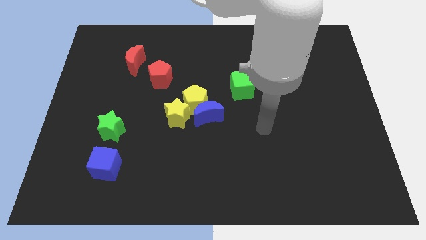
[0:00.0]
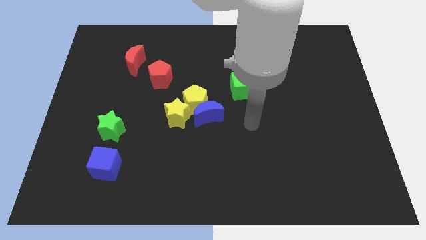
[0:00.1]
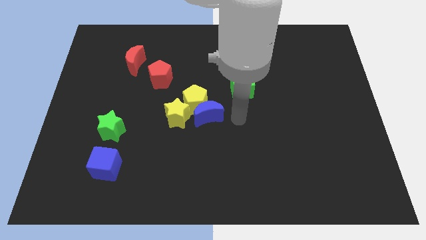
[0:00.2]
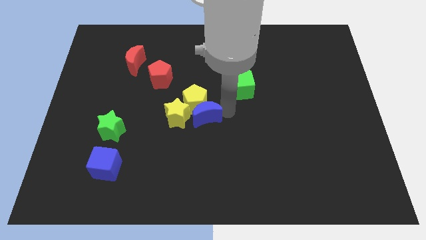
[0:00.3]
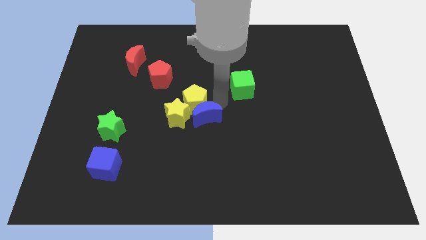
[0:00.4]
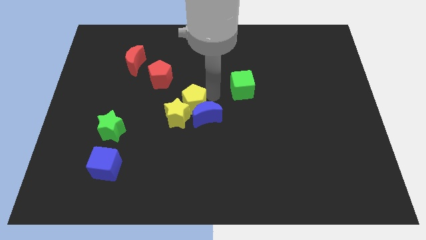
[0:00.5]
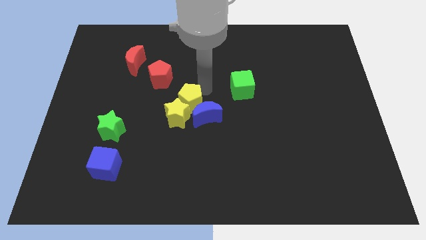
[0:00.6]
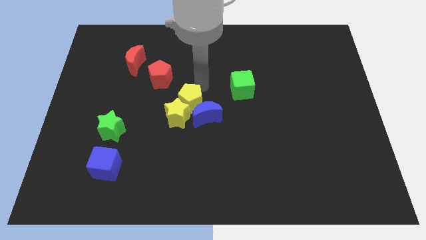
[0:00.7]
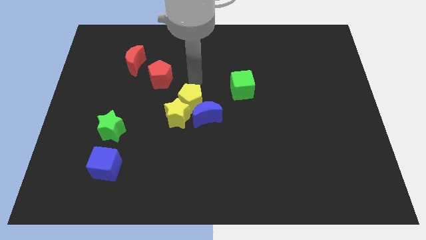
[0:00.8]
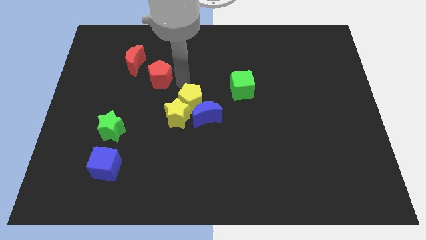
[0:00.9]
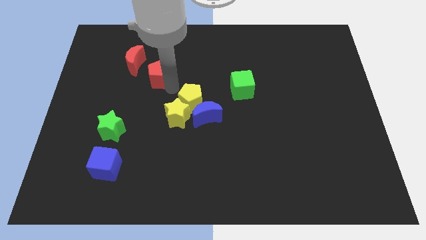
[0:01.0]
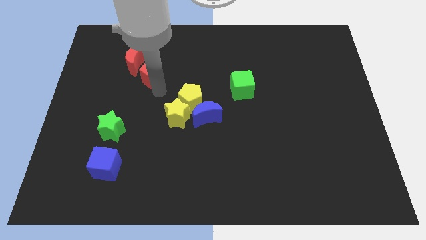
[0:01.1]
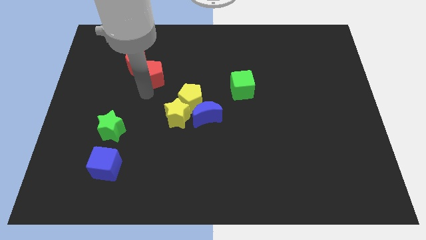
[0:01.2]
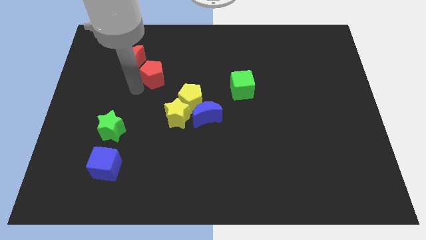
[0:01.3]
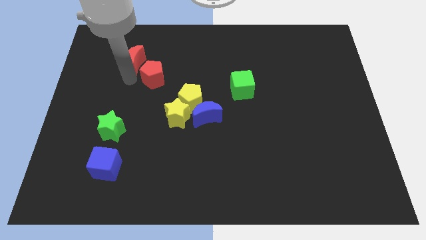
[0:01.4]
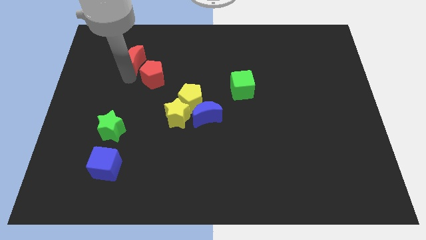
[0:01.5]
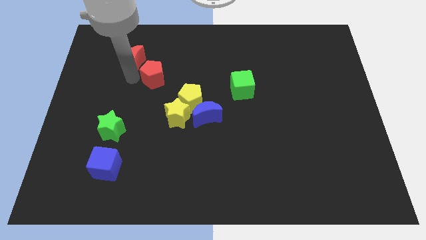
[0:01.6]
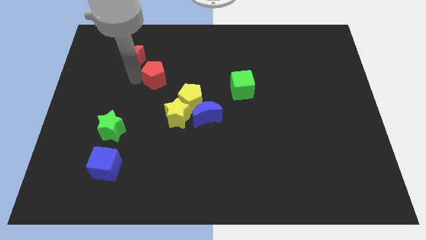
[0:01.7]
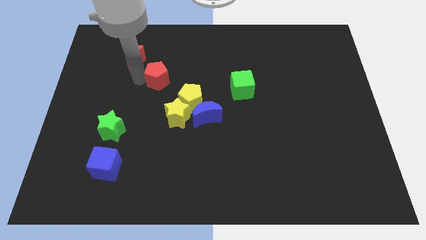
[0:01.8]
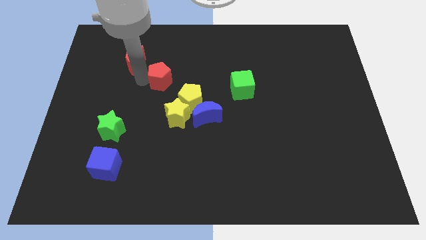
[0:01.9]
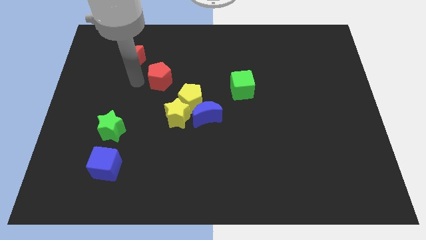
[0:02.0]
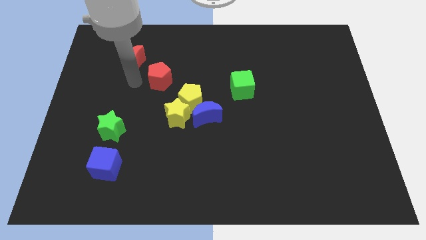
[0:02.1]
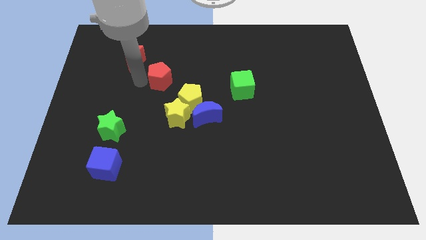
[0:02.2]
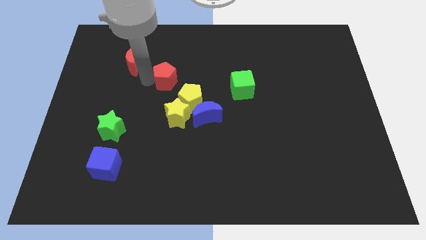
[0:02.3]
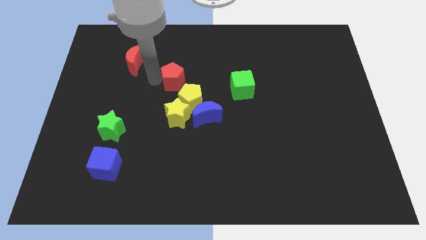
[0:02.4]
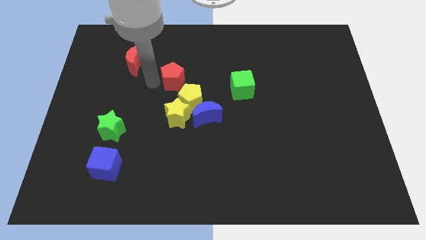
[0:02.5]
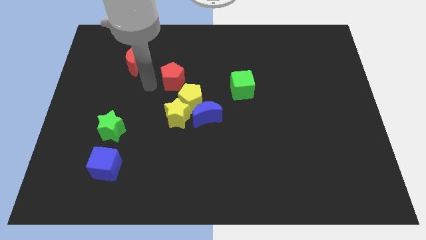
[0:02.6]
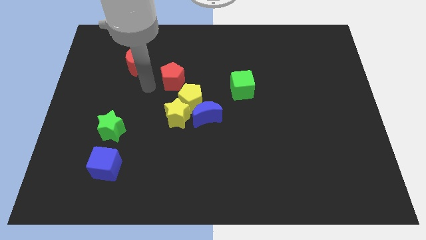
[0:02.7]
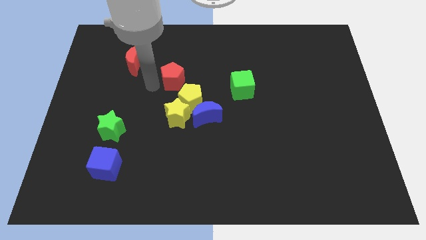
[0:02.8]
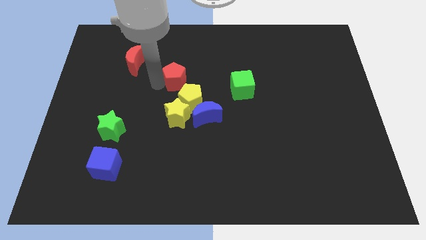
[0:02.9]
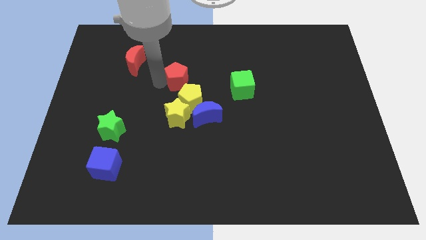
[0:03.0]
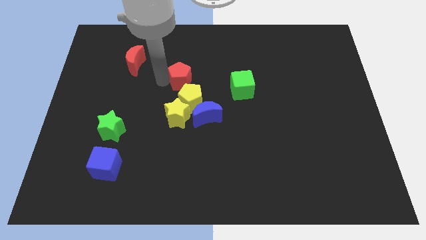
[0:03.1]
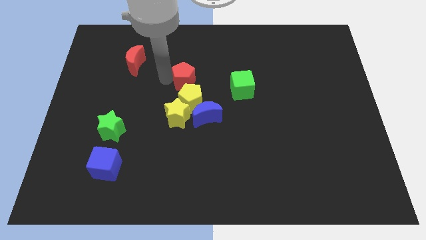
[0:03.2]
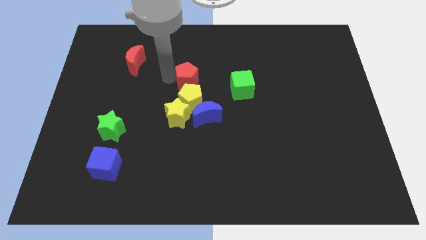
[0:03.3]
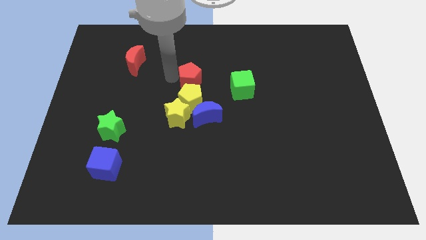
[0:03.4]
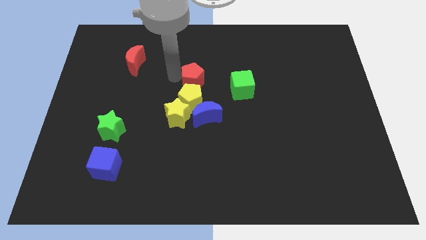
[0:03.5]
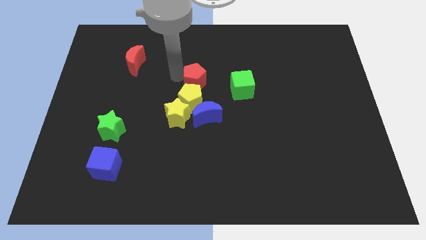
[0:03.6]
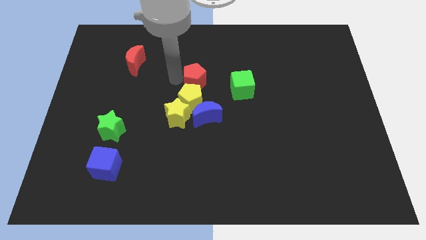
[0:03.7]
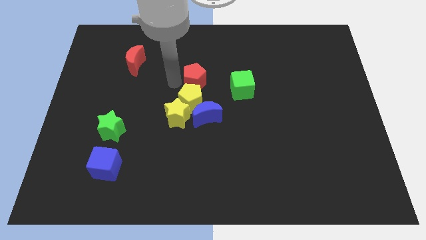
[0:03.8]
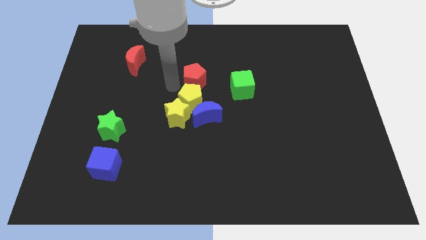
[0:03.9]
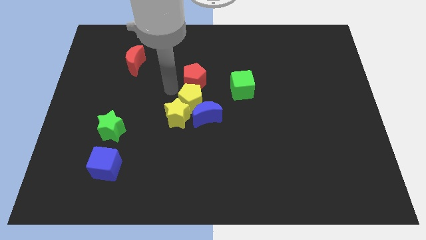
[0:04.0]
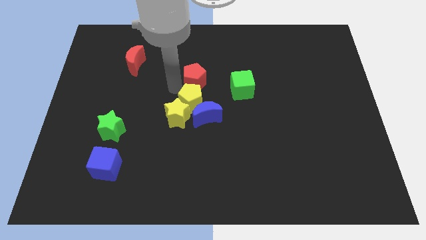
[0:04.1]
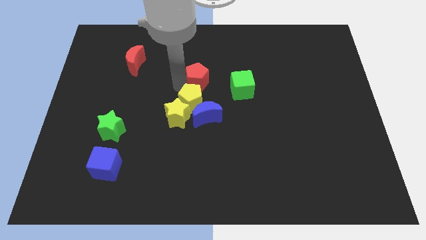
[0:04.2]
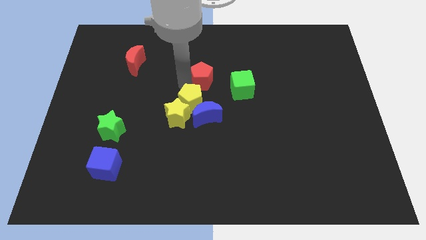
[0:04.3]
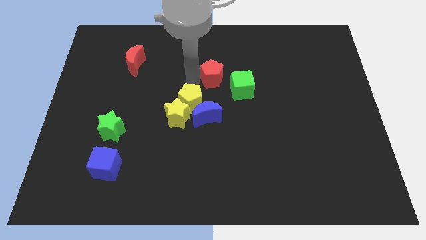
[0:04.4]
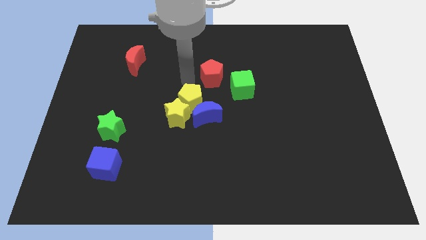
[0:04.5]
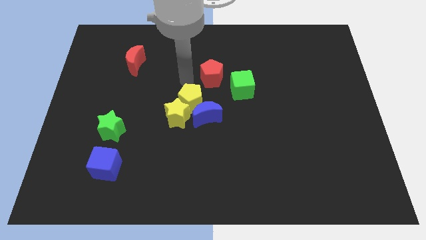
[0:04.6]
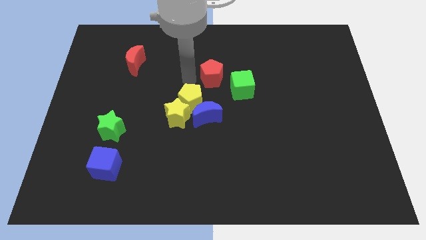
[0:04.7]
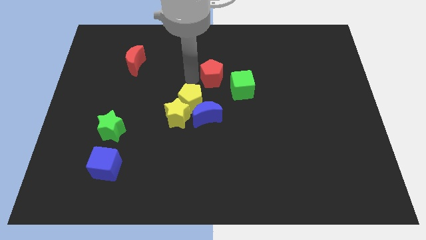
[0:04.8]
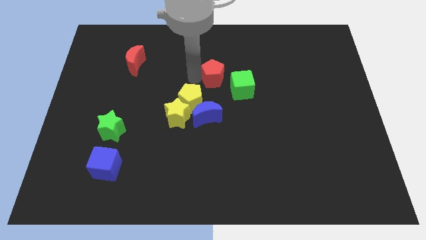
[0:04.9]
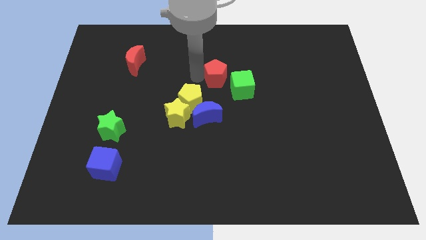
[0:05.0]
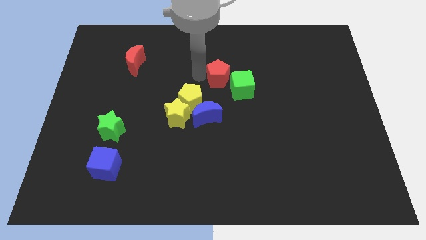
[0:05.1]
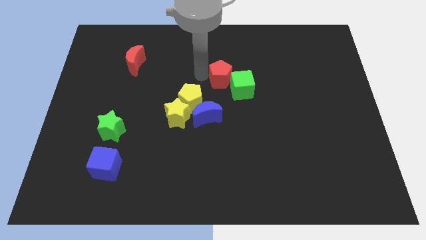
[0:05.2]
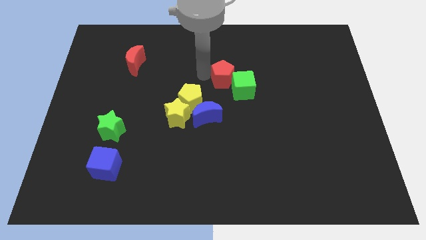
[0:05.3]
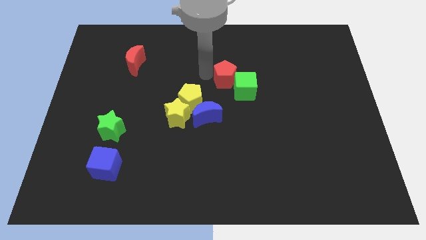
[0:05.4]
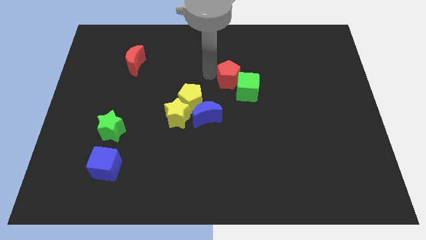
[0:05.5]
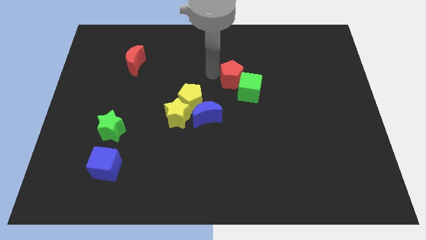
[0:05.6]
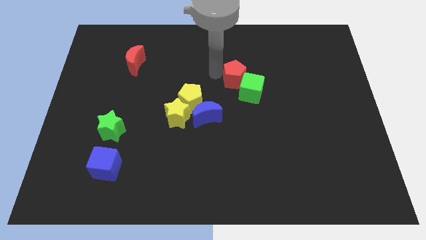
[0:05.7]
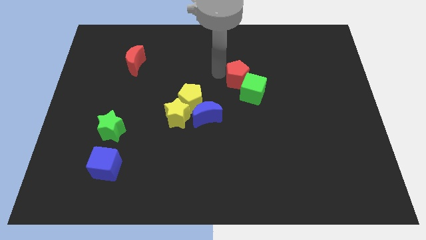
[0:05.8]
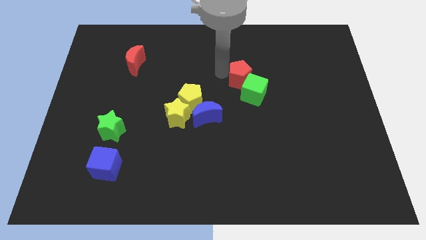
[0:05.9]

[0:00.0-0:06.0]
push the red pentagon right

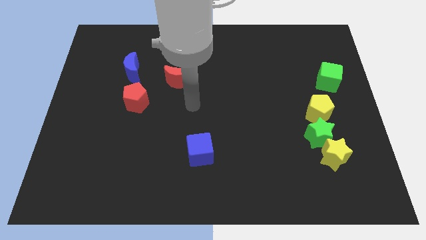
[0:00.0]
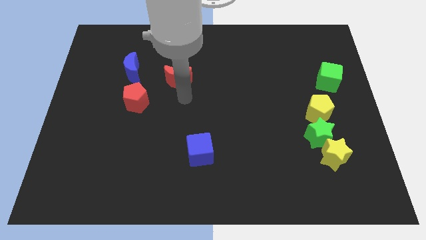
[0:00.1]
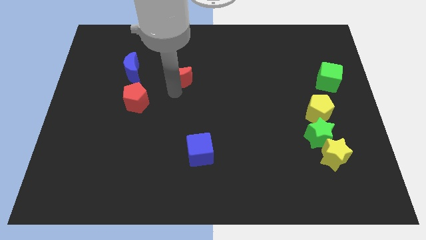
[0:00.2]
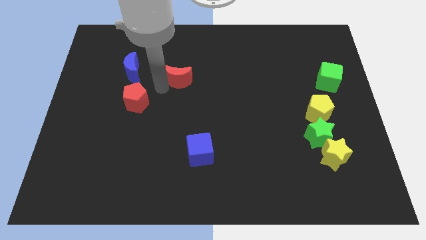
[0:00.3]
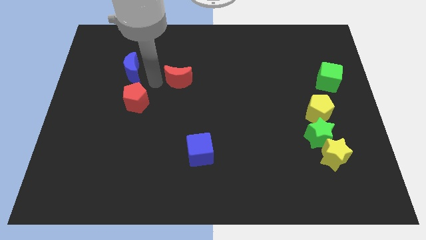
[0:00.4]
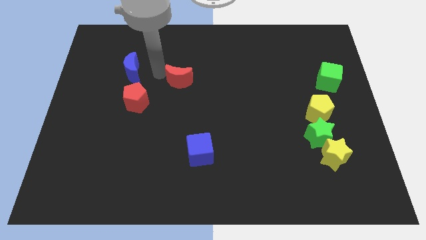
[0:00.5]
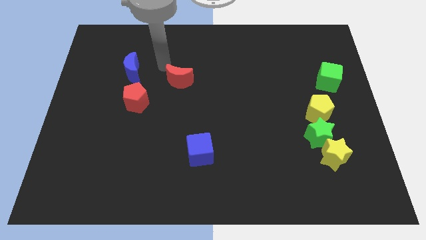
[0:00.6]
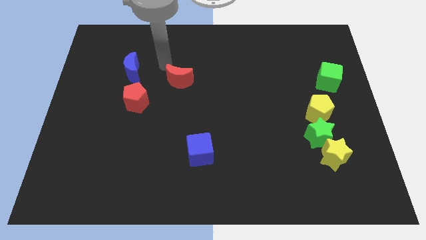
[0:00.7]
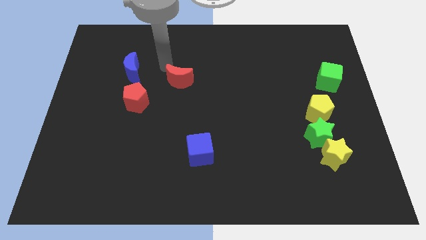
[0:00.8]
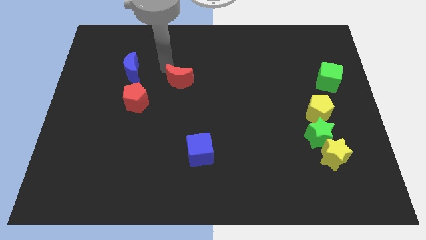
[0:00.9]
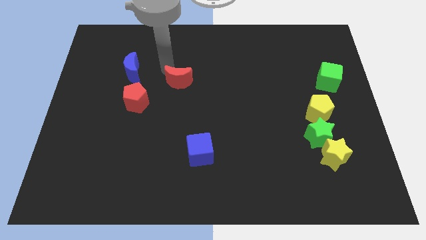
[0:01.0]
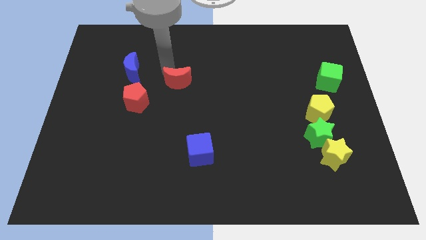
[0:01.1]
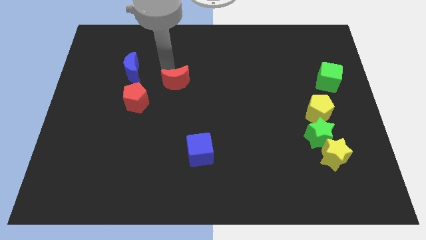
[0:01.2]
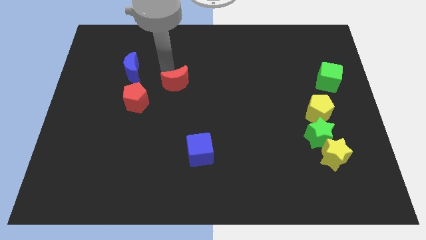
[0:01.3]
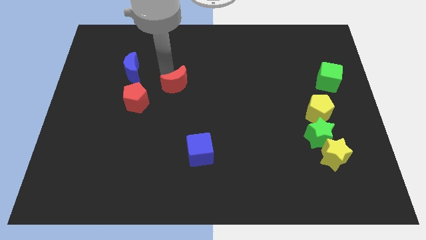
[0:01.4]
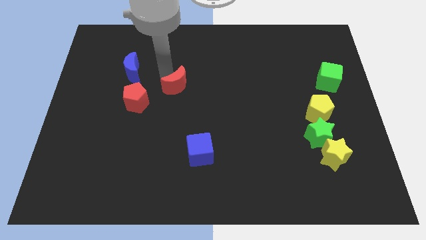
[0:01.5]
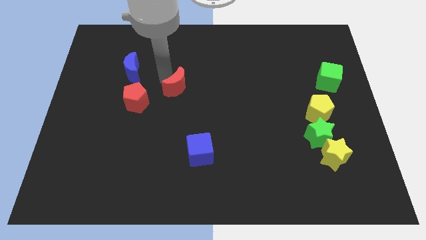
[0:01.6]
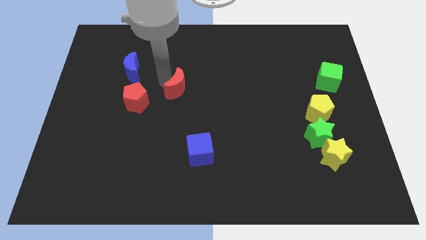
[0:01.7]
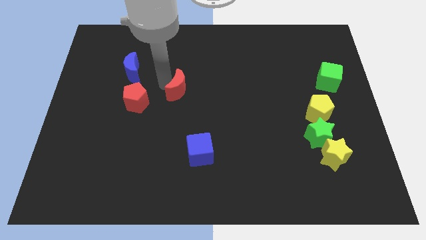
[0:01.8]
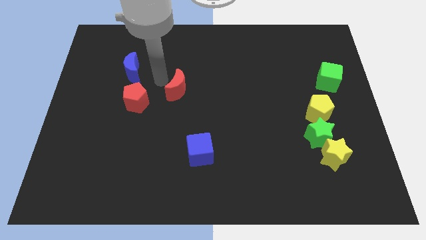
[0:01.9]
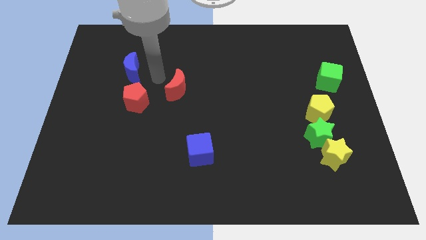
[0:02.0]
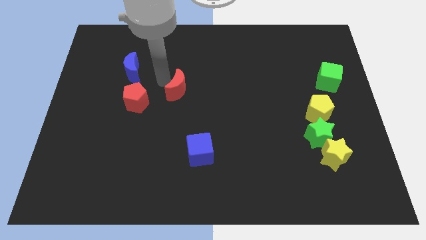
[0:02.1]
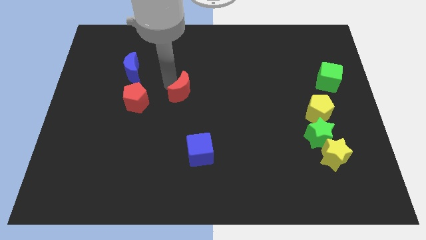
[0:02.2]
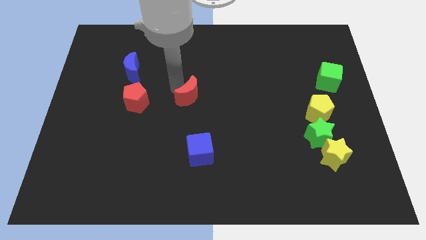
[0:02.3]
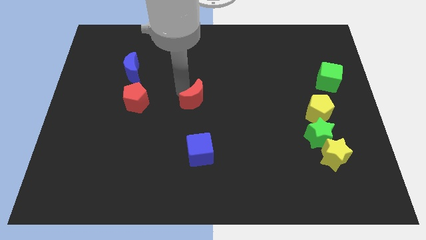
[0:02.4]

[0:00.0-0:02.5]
slightly move the red moon downwards and then to the right
